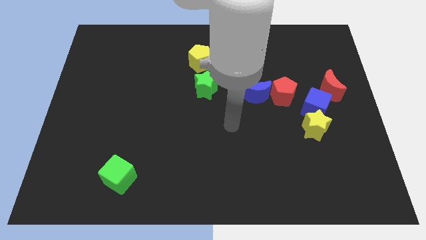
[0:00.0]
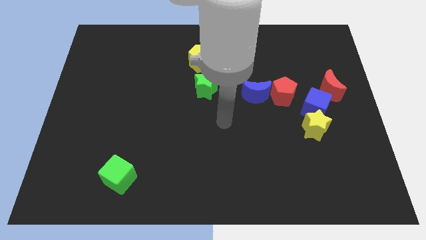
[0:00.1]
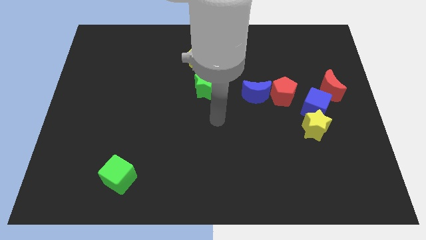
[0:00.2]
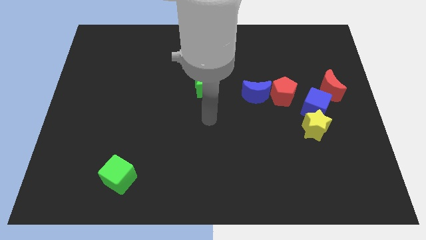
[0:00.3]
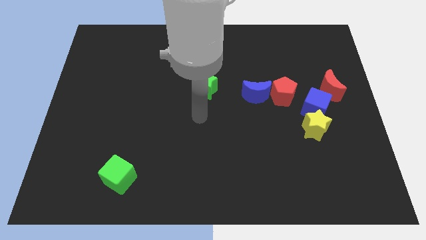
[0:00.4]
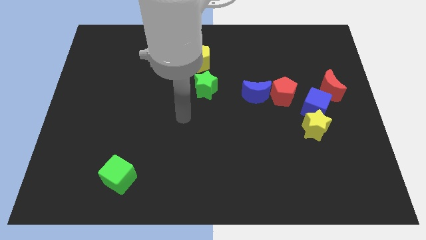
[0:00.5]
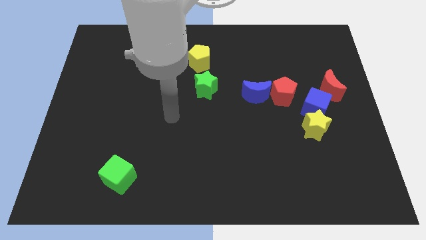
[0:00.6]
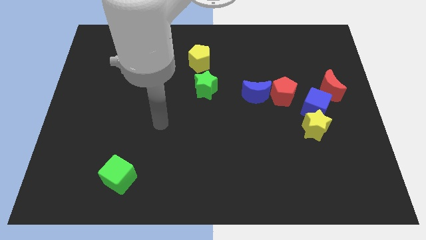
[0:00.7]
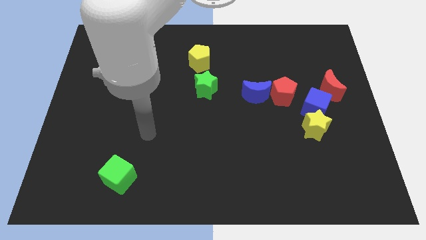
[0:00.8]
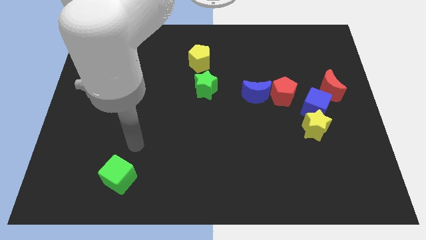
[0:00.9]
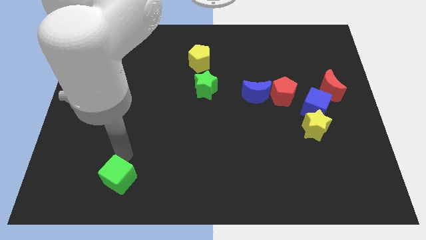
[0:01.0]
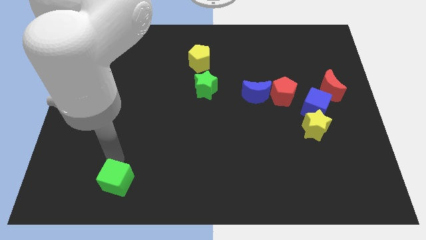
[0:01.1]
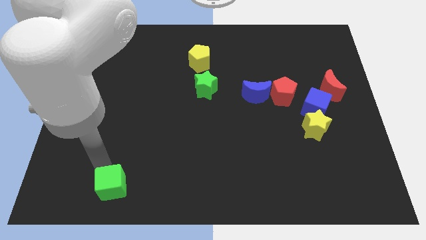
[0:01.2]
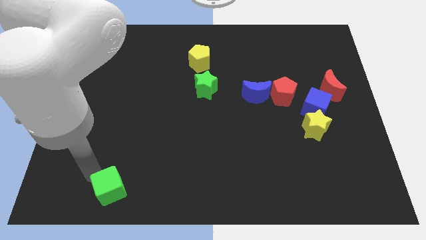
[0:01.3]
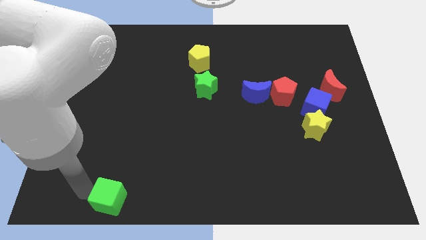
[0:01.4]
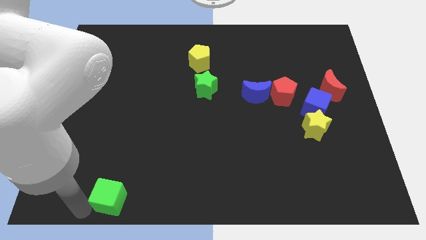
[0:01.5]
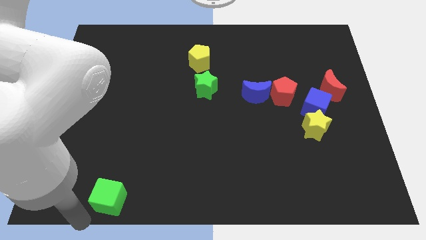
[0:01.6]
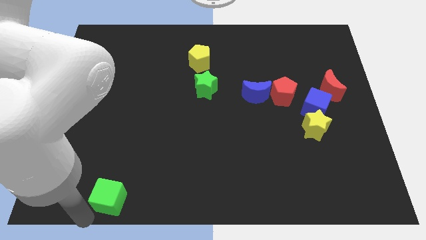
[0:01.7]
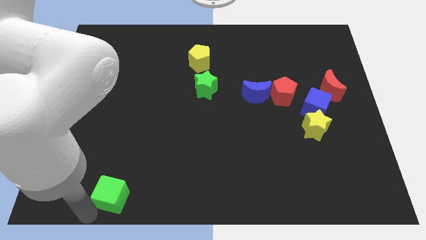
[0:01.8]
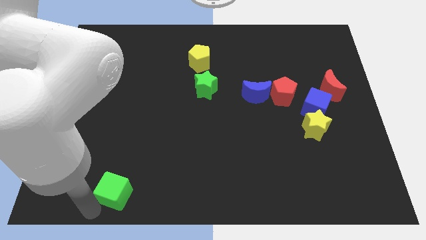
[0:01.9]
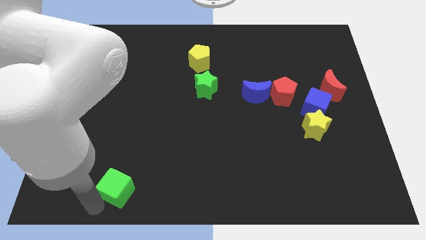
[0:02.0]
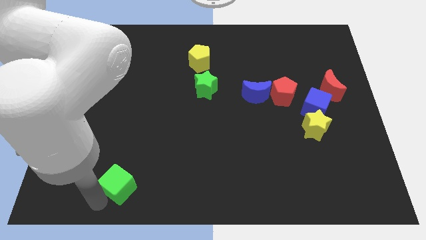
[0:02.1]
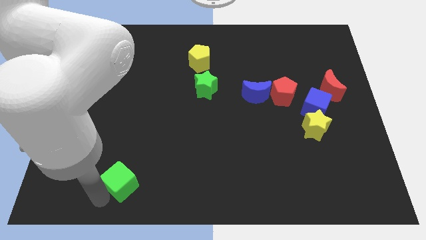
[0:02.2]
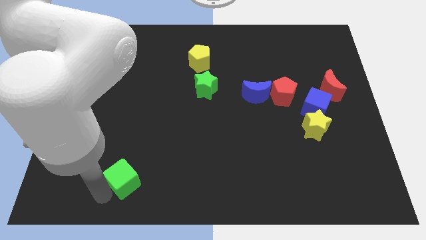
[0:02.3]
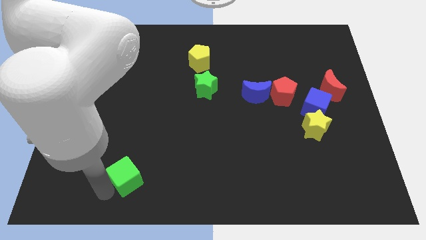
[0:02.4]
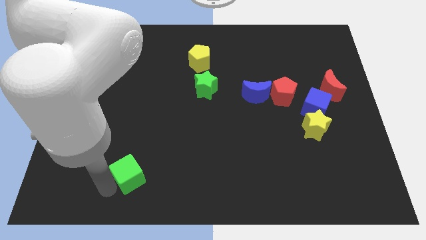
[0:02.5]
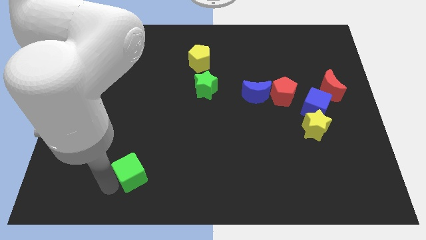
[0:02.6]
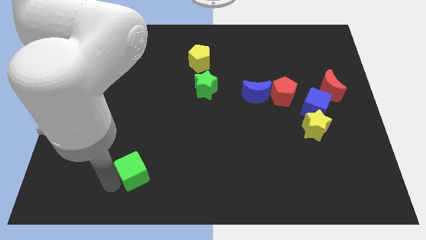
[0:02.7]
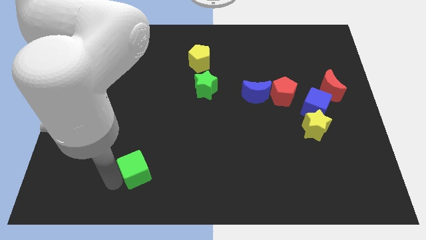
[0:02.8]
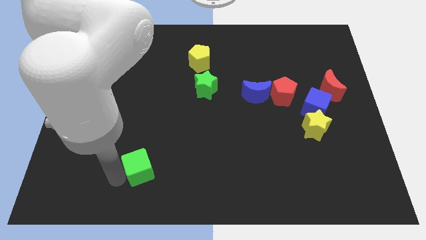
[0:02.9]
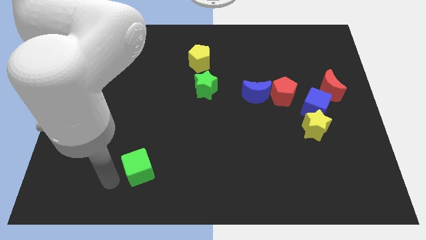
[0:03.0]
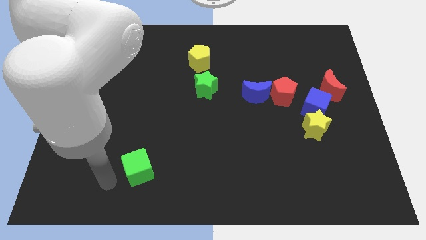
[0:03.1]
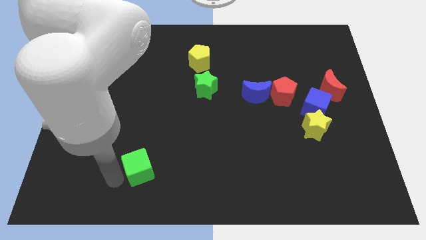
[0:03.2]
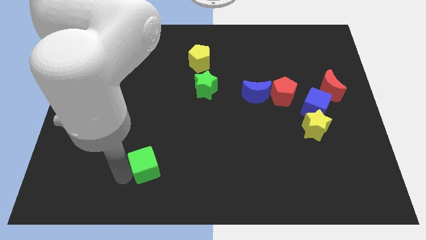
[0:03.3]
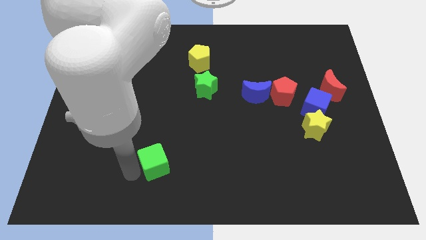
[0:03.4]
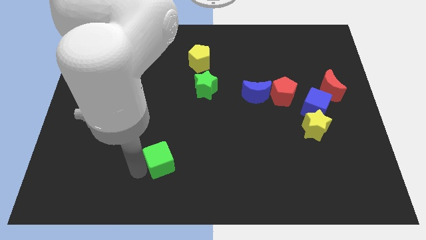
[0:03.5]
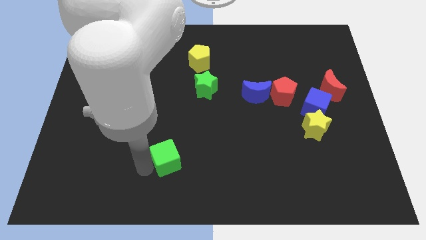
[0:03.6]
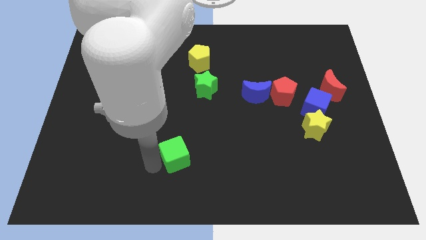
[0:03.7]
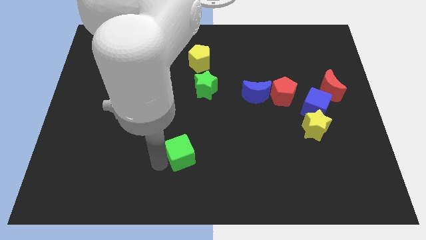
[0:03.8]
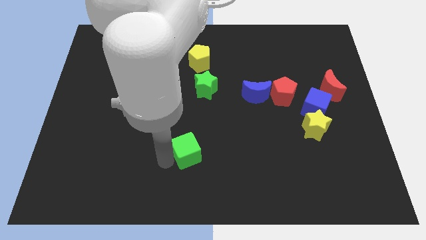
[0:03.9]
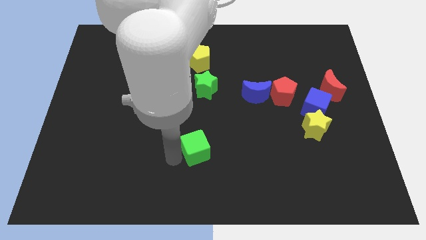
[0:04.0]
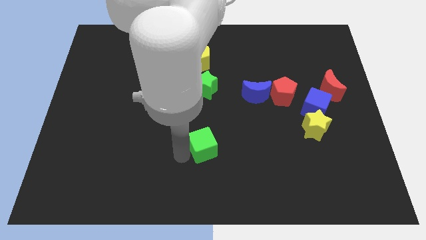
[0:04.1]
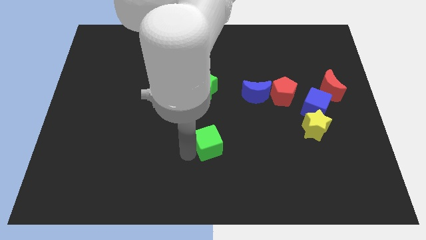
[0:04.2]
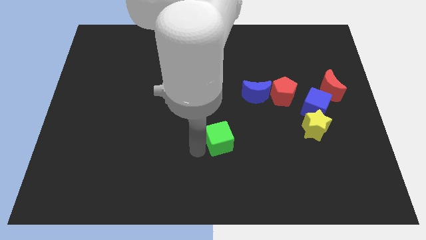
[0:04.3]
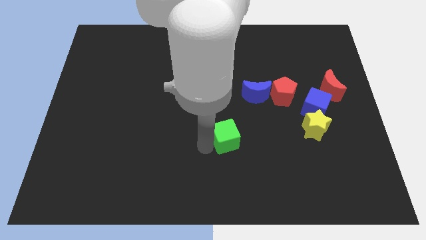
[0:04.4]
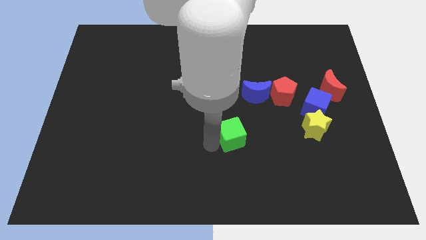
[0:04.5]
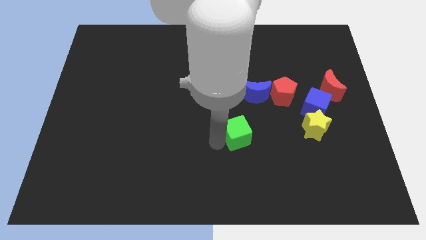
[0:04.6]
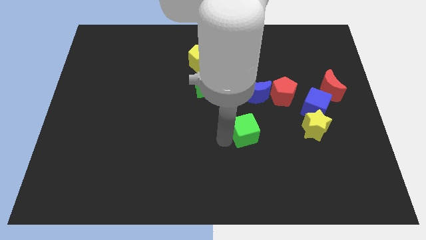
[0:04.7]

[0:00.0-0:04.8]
move the green cube to the left of the yellow star

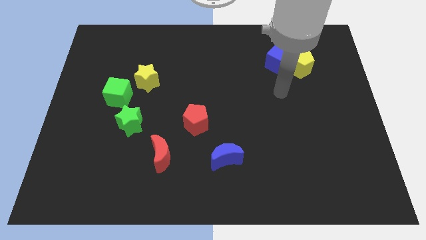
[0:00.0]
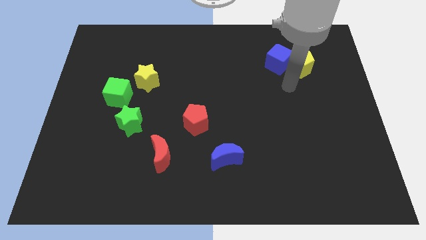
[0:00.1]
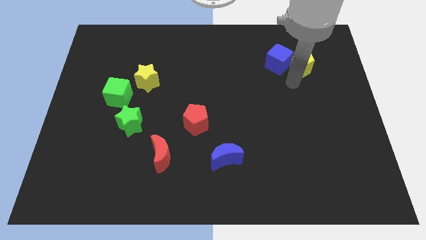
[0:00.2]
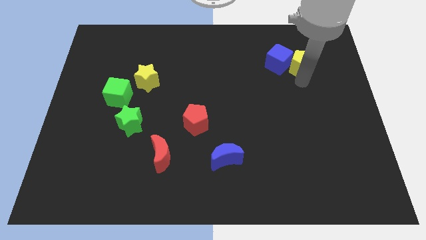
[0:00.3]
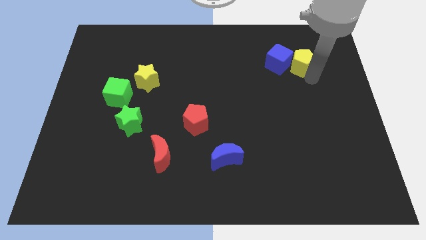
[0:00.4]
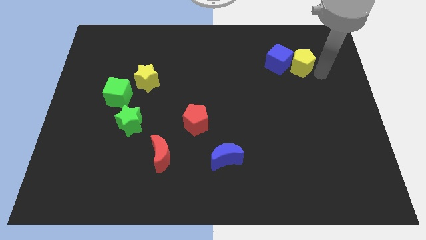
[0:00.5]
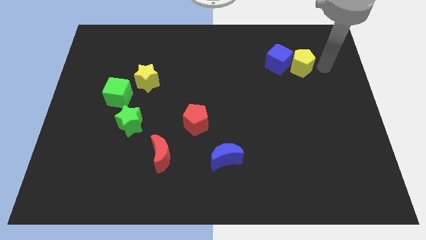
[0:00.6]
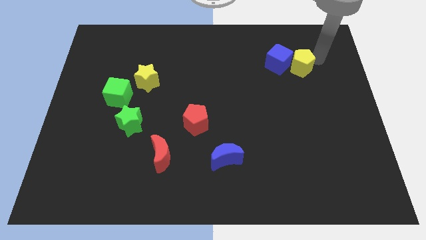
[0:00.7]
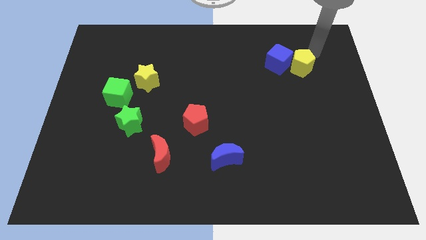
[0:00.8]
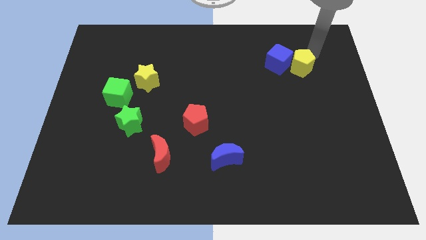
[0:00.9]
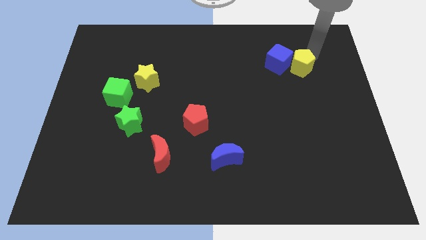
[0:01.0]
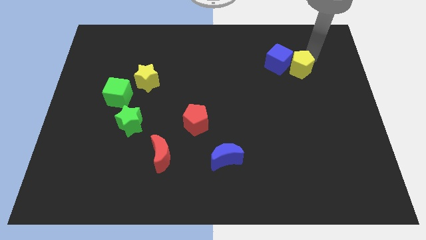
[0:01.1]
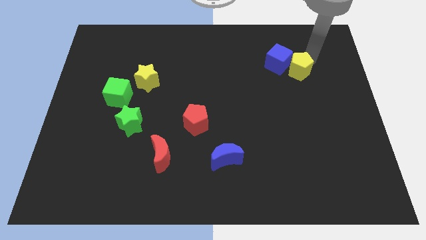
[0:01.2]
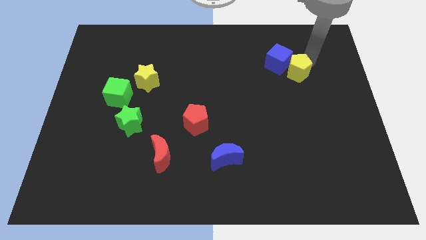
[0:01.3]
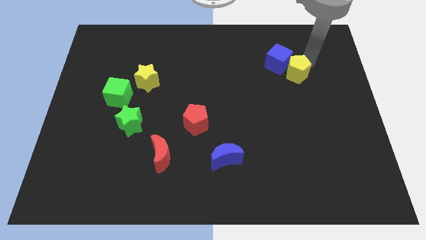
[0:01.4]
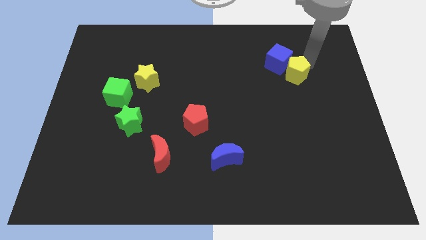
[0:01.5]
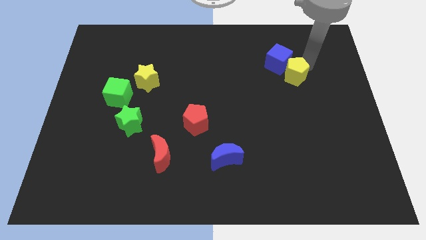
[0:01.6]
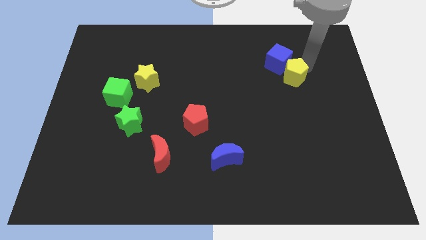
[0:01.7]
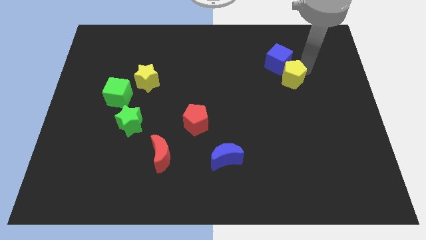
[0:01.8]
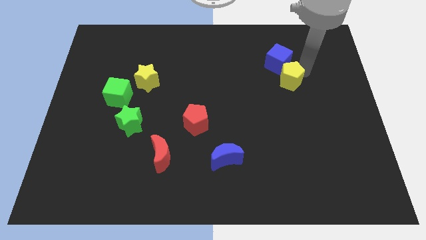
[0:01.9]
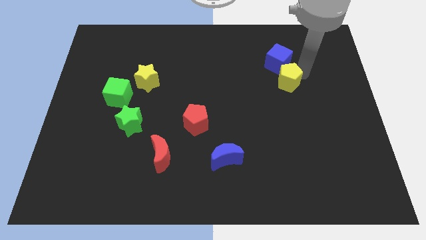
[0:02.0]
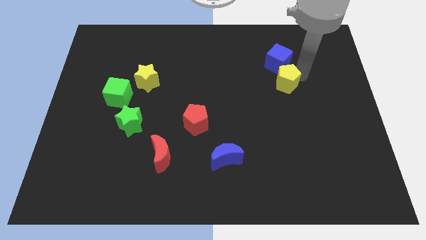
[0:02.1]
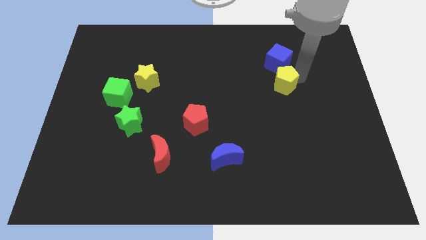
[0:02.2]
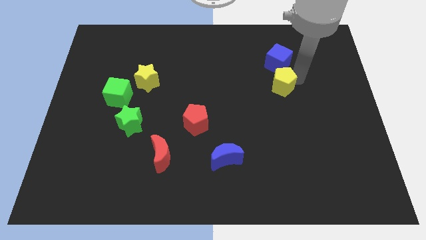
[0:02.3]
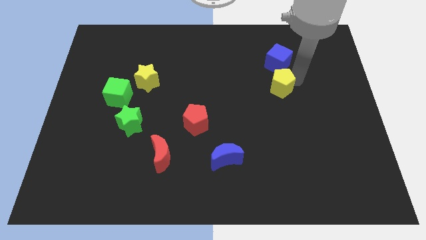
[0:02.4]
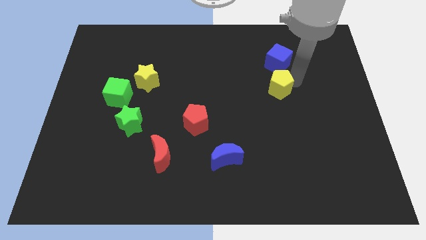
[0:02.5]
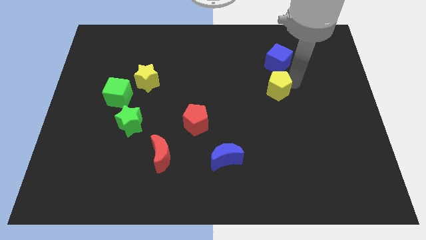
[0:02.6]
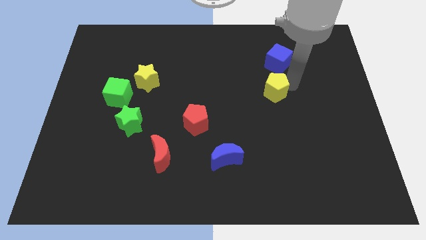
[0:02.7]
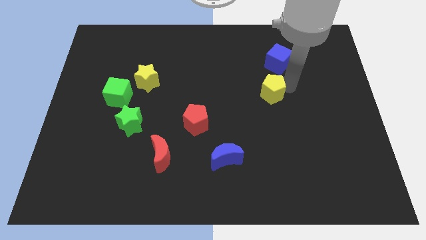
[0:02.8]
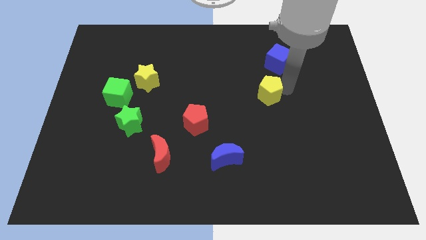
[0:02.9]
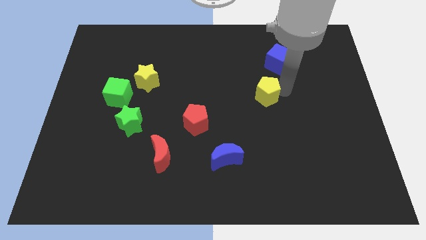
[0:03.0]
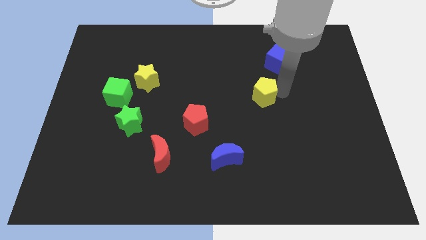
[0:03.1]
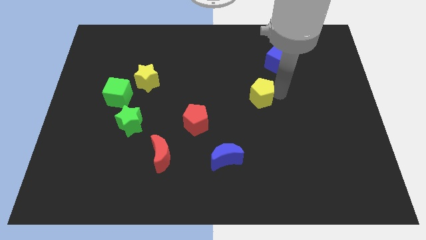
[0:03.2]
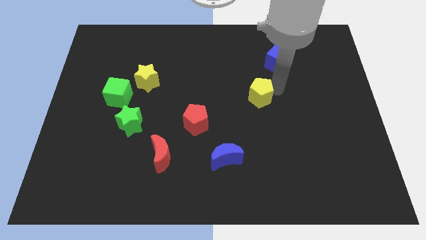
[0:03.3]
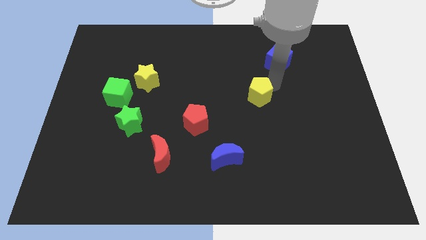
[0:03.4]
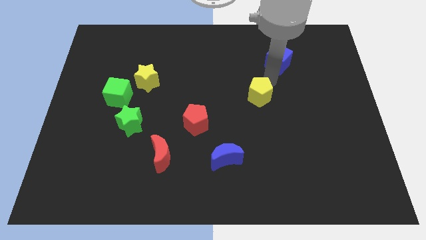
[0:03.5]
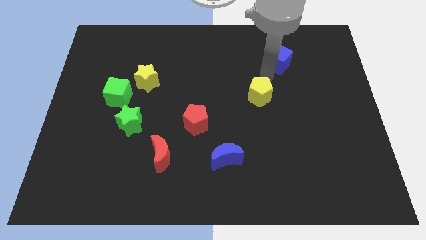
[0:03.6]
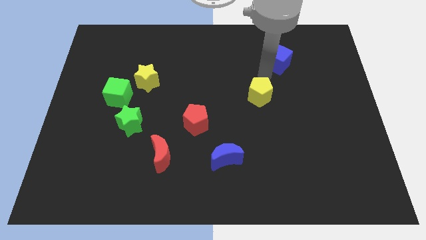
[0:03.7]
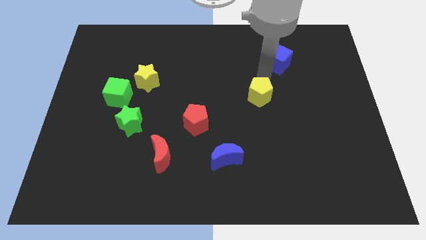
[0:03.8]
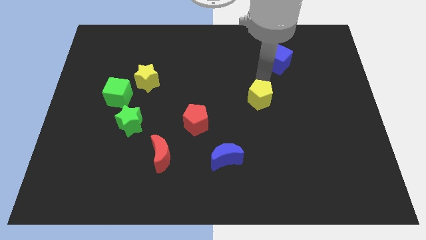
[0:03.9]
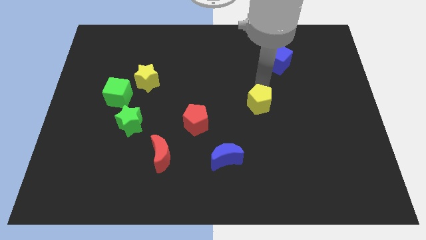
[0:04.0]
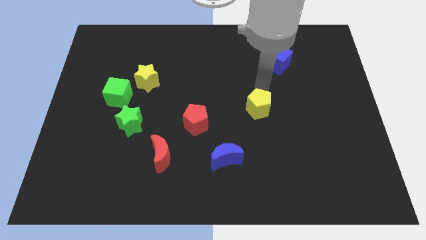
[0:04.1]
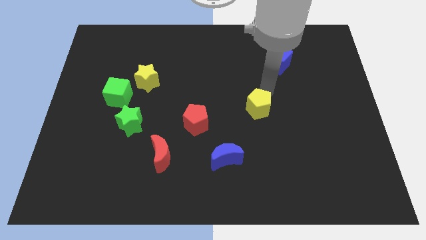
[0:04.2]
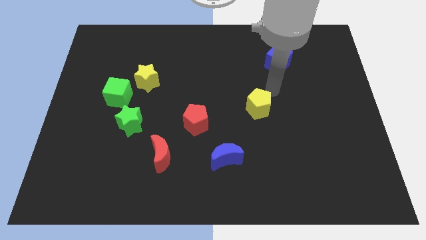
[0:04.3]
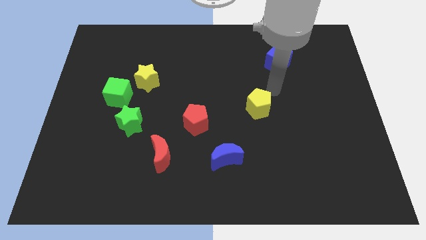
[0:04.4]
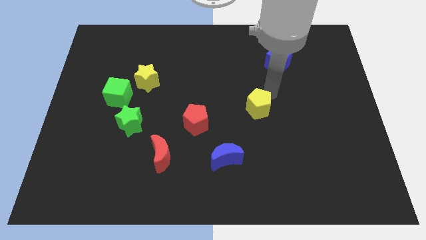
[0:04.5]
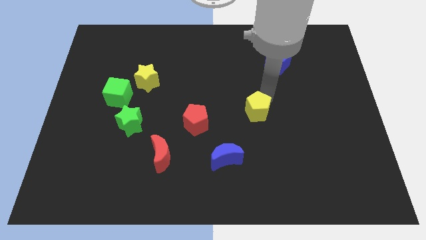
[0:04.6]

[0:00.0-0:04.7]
put the yellow pentagon to the right of the red pentagon
